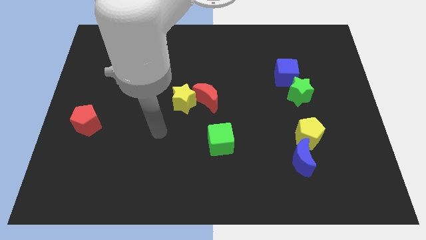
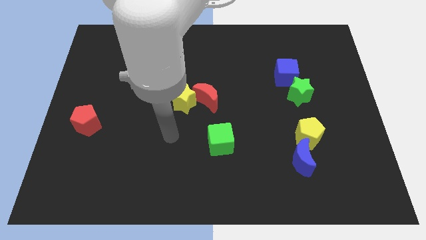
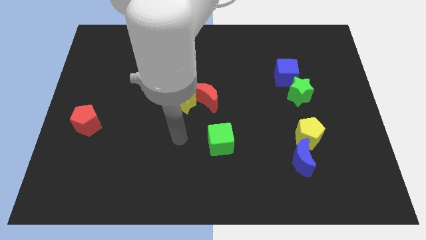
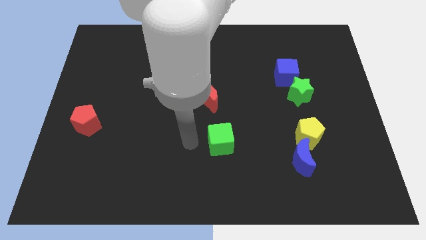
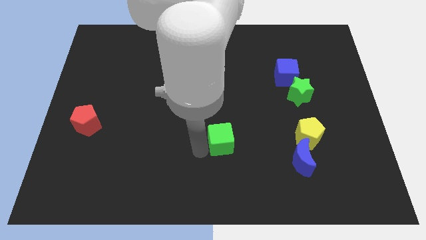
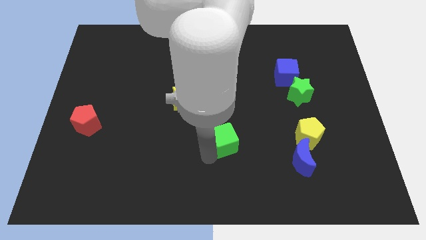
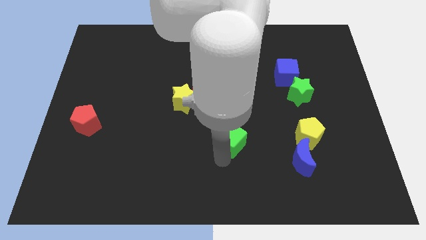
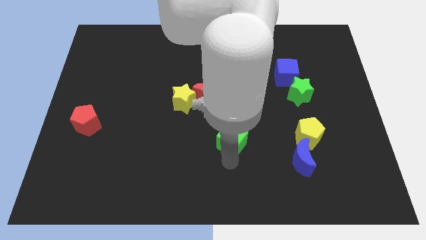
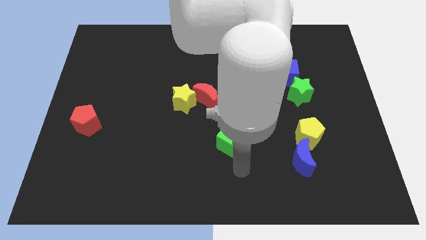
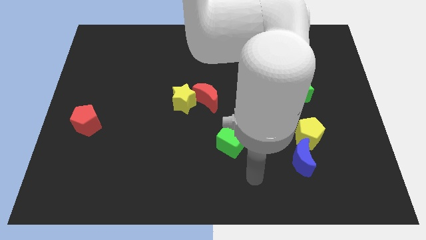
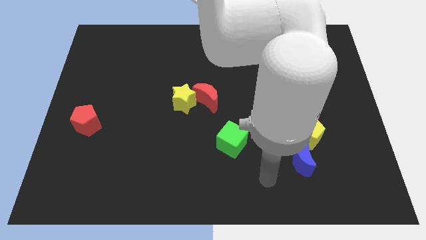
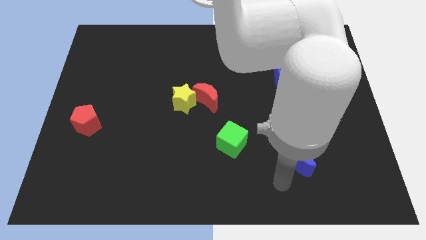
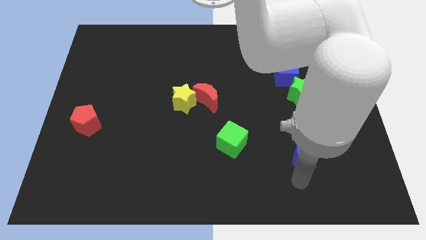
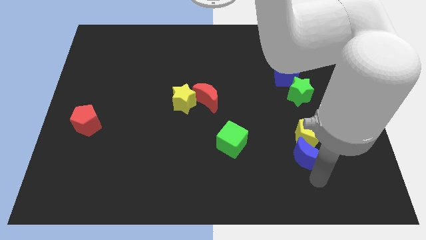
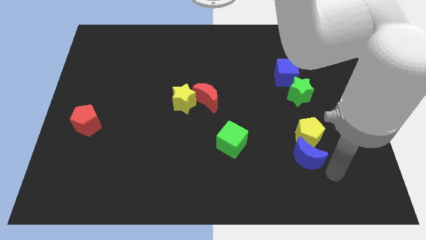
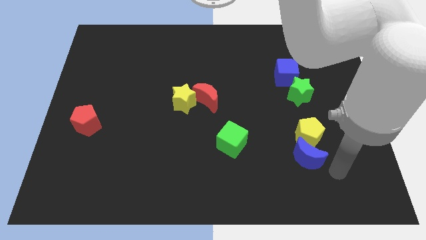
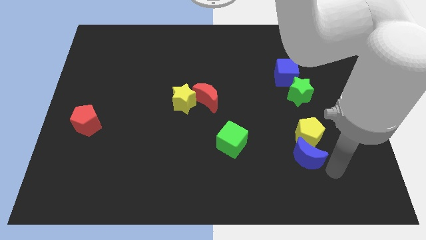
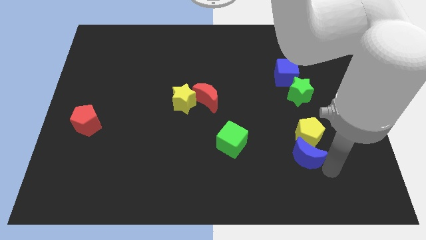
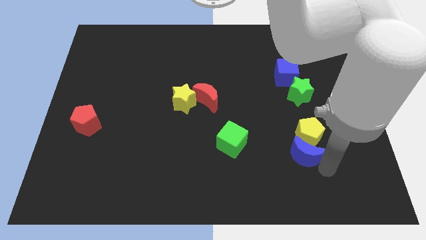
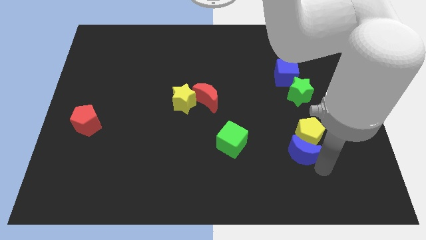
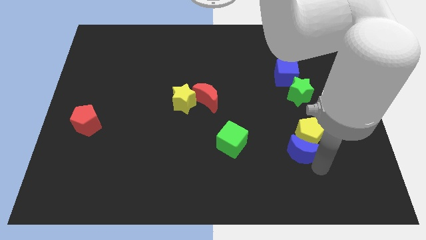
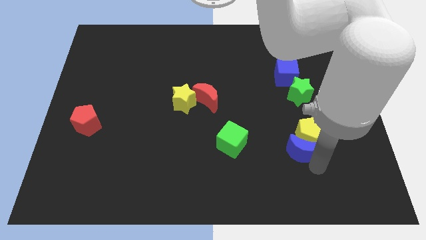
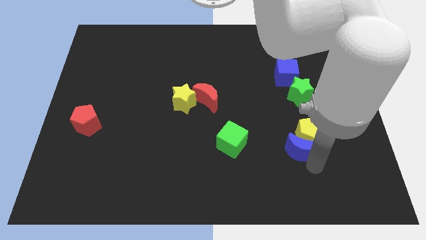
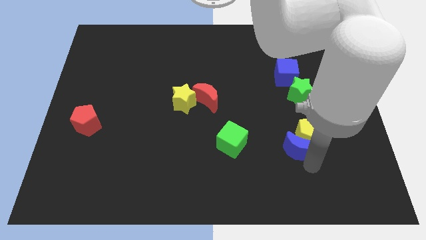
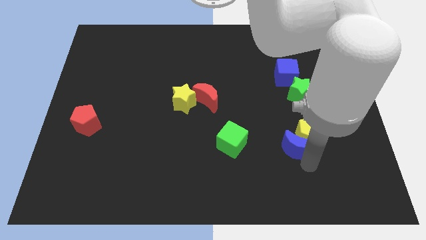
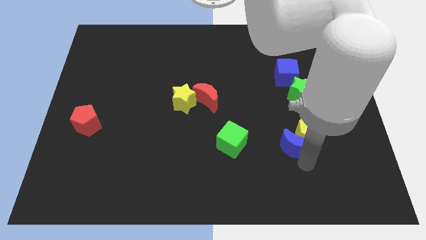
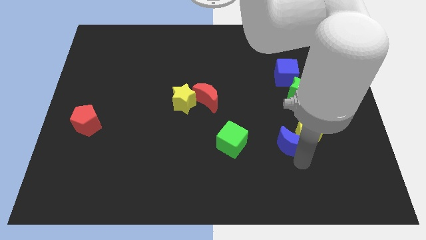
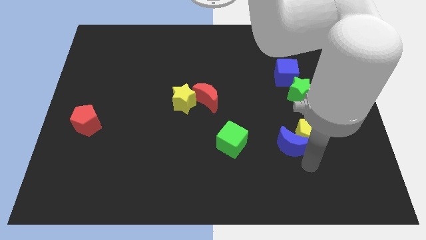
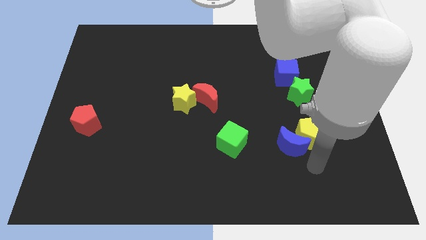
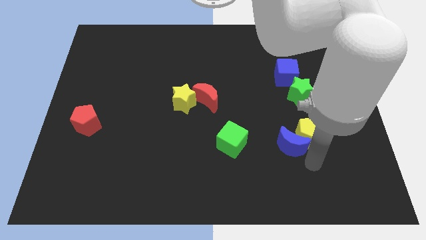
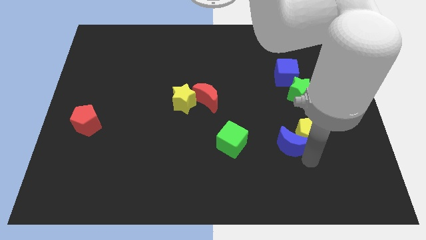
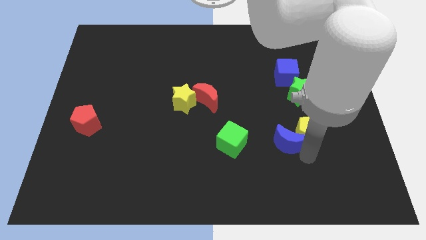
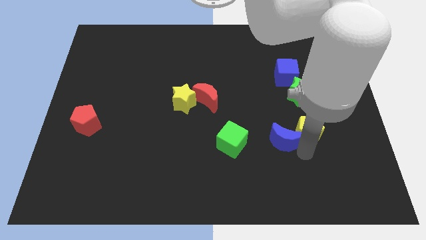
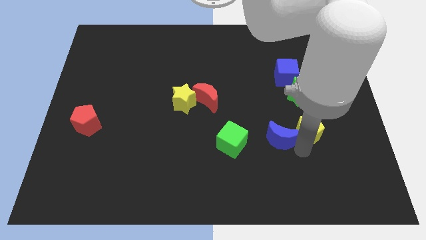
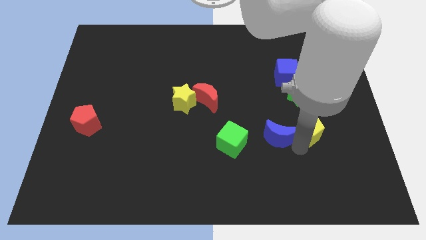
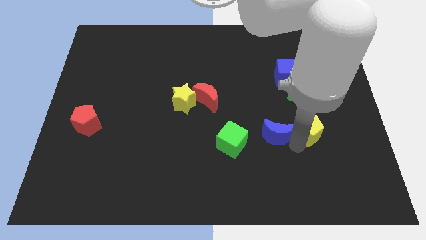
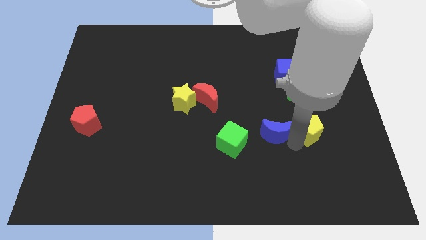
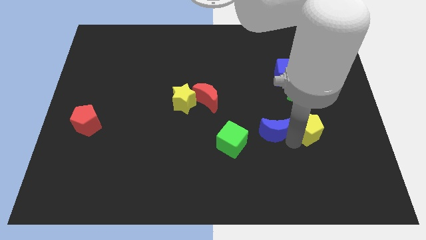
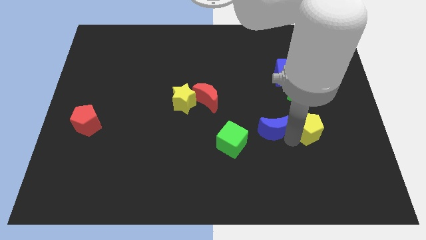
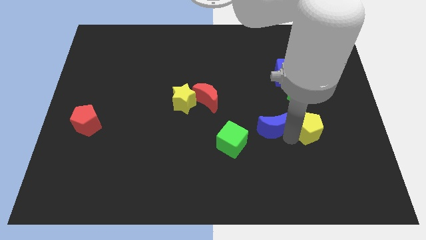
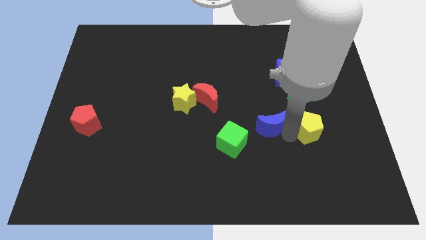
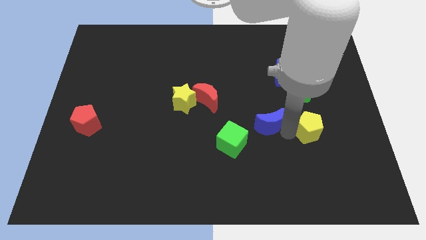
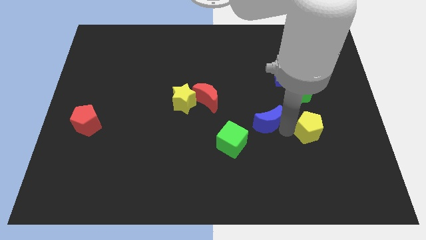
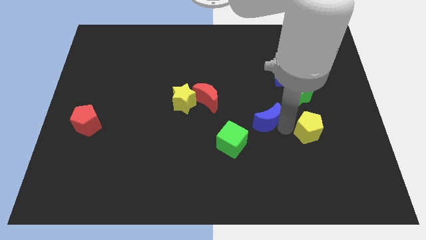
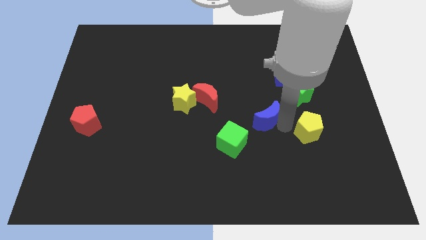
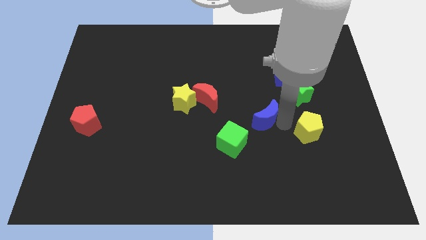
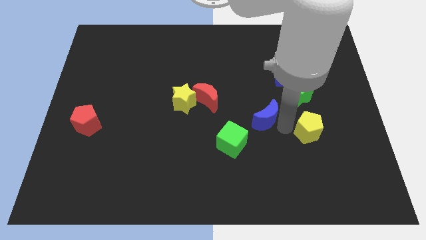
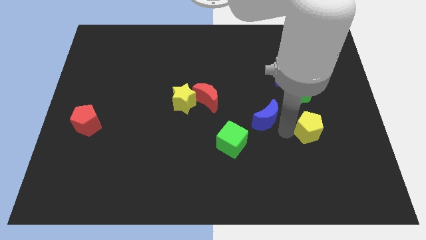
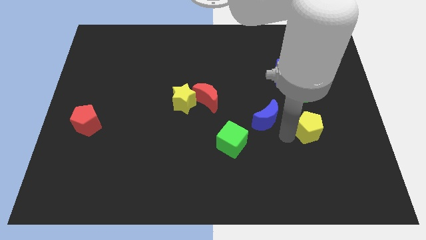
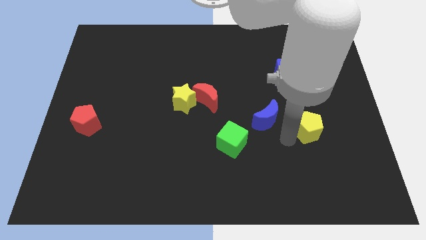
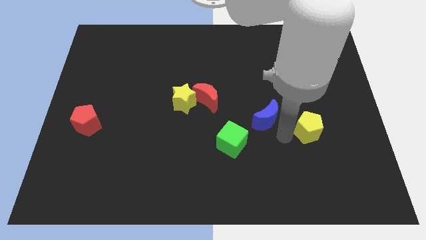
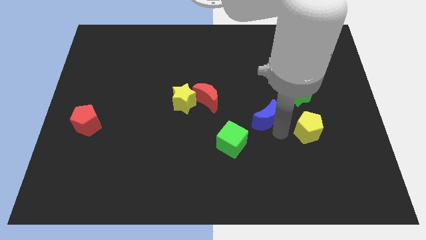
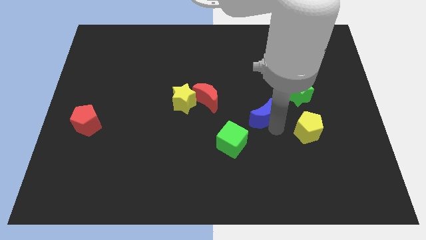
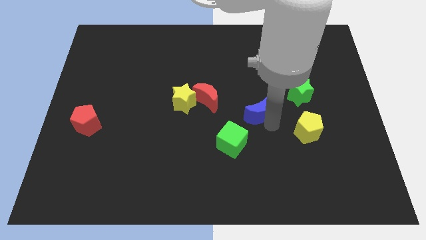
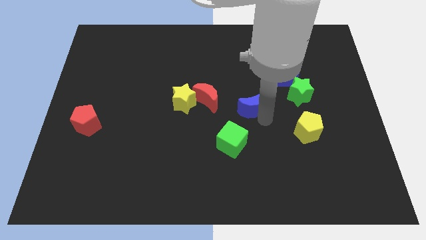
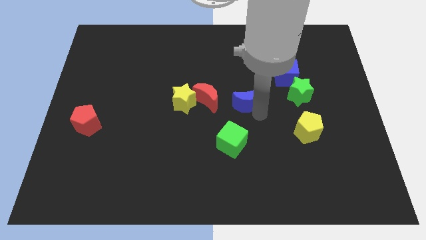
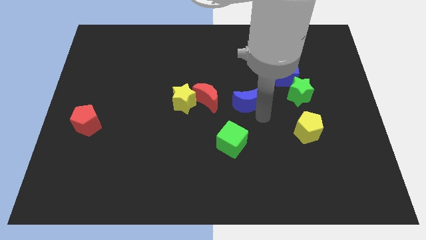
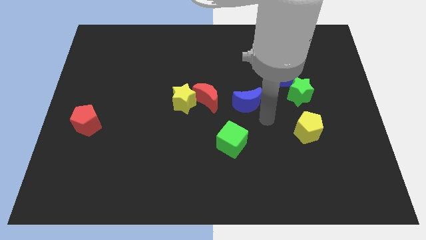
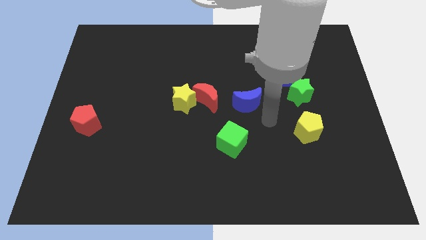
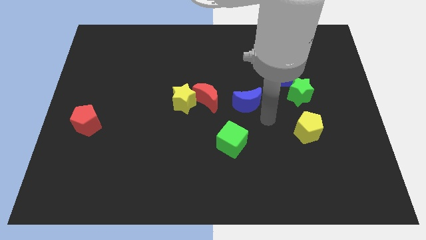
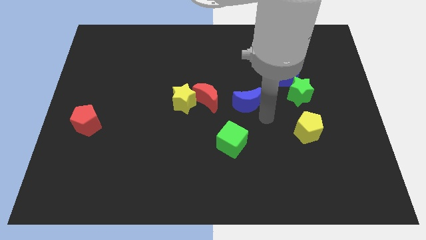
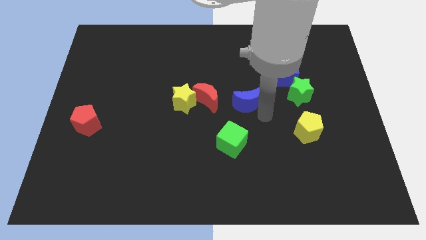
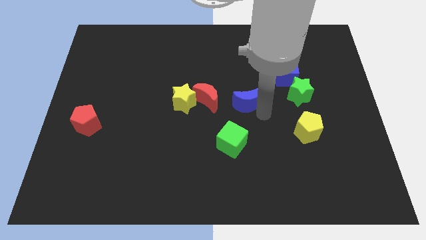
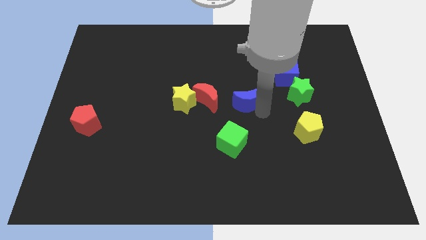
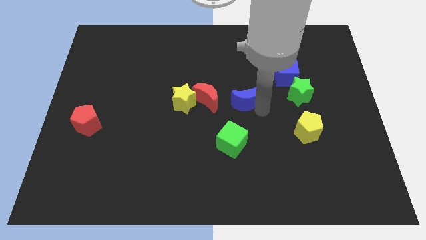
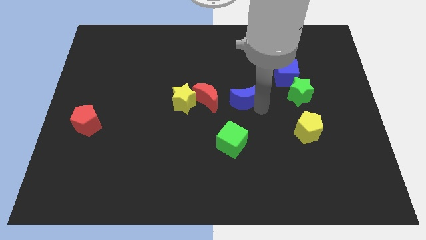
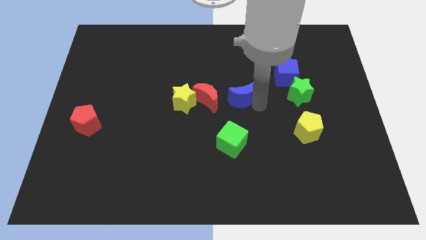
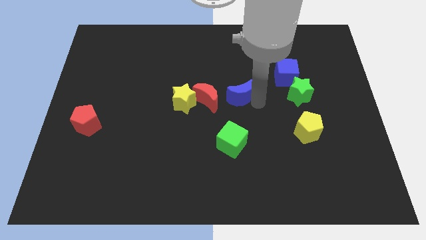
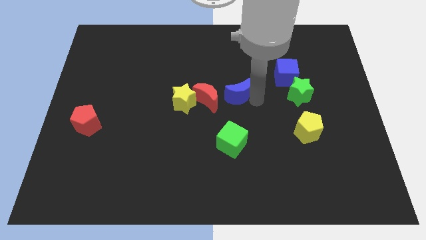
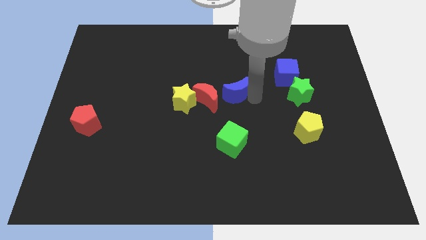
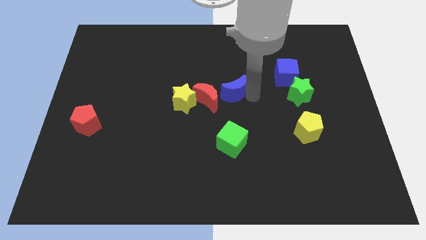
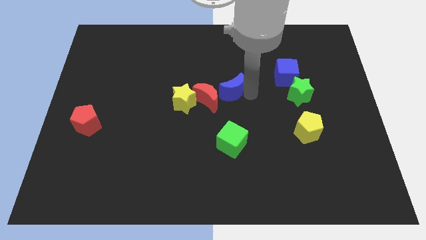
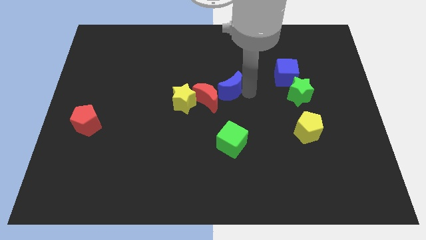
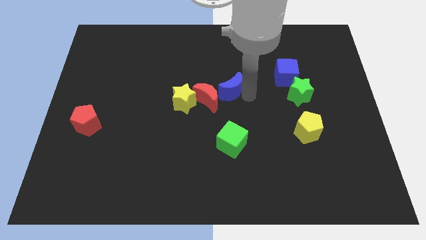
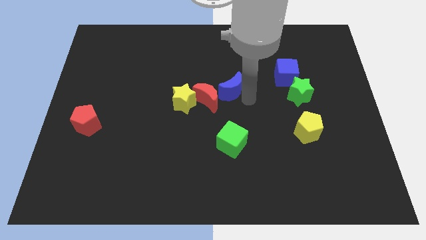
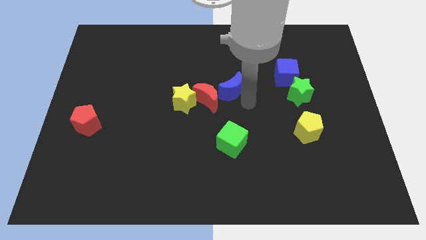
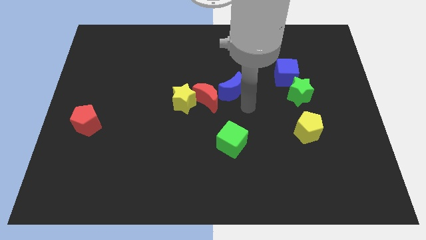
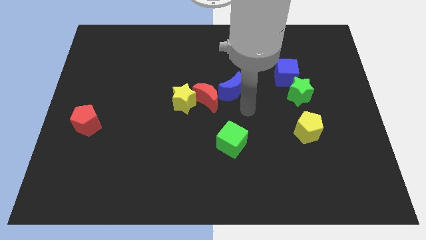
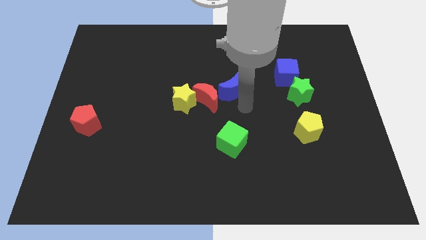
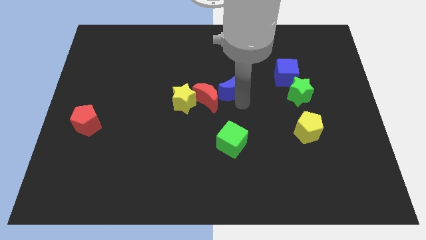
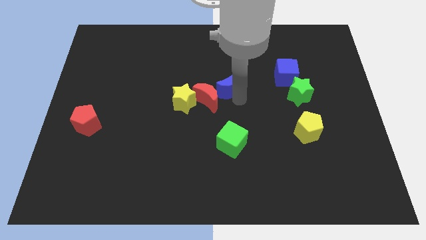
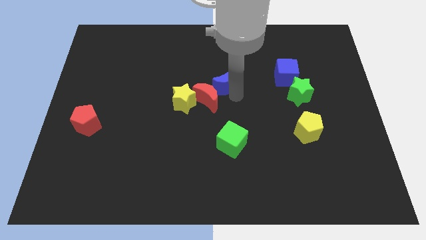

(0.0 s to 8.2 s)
put the blue moon diagonally up and to the right of the yellow star
